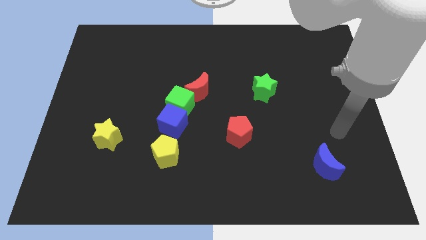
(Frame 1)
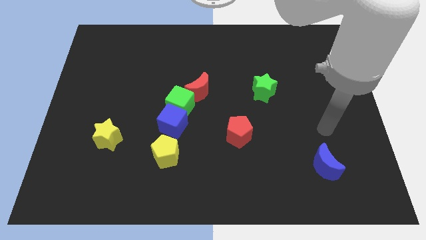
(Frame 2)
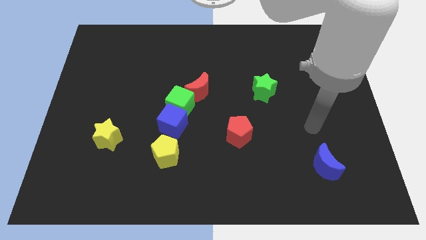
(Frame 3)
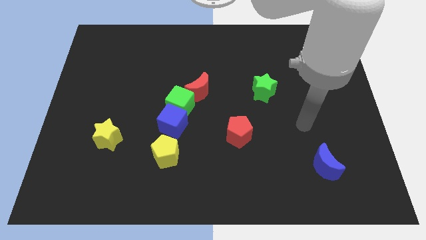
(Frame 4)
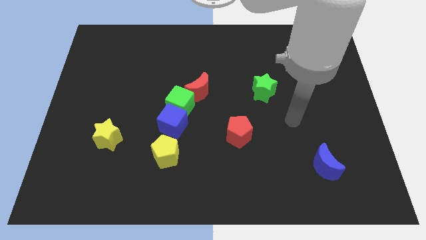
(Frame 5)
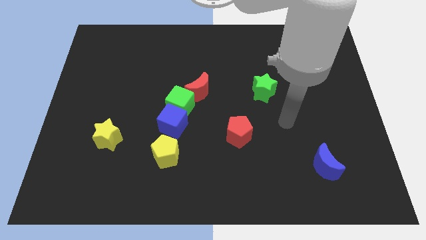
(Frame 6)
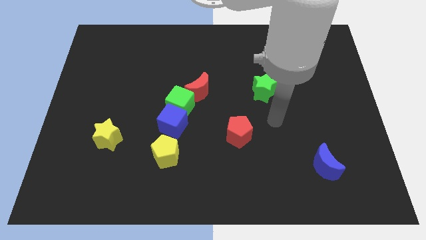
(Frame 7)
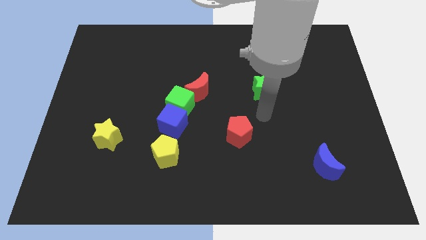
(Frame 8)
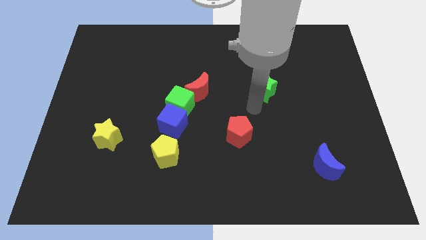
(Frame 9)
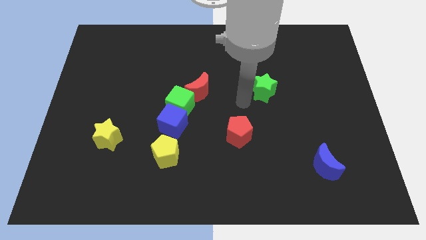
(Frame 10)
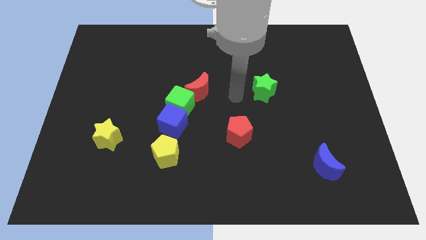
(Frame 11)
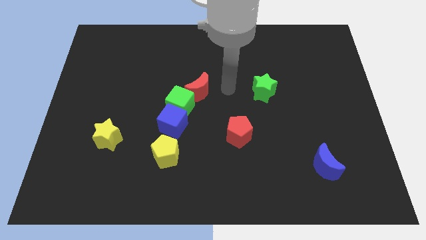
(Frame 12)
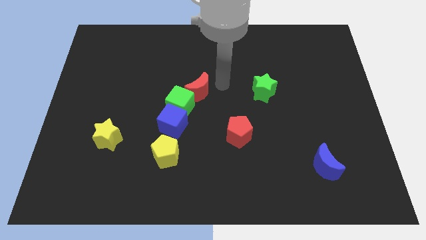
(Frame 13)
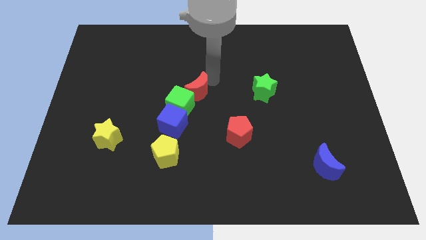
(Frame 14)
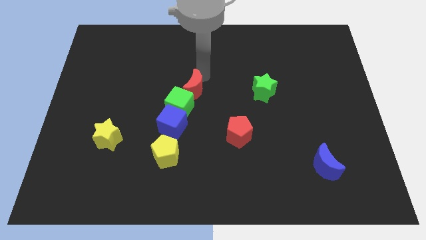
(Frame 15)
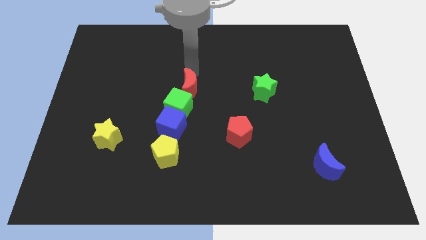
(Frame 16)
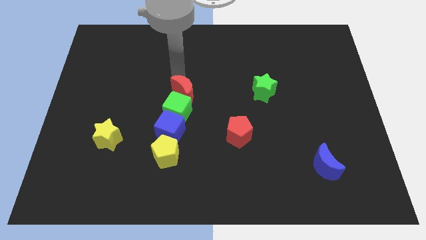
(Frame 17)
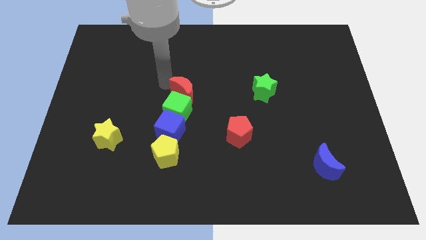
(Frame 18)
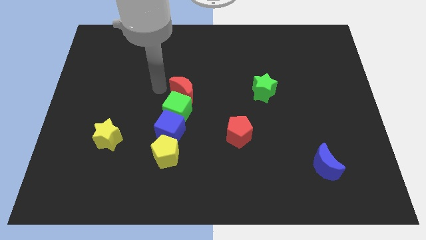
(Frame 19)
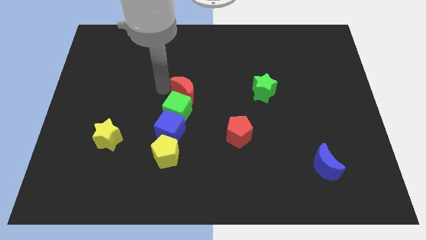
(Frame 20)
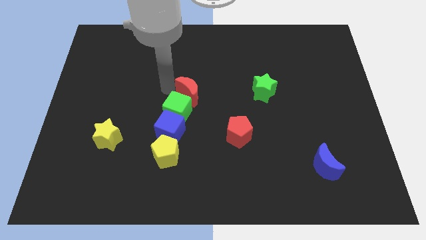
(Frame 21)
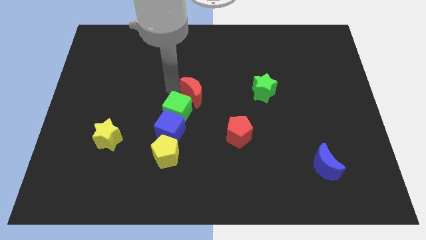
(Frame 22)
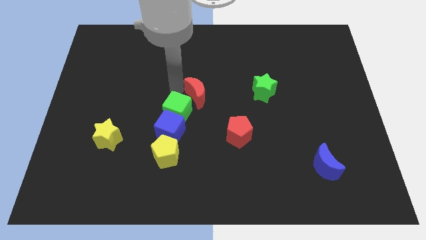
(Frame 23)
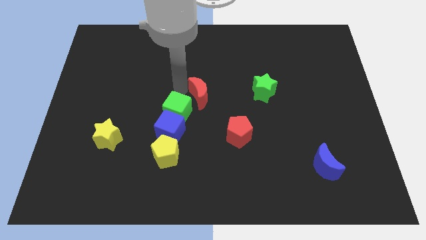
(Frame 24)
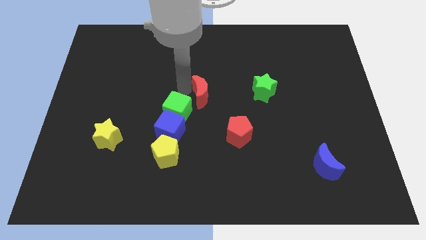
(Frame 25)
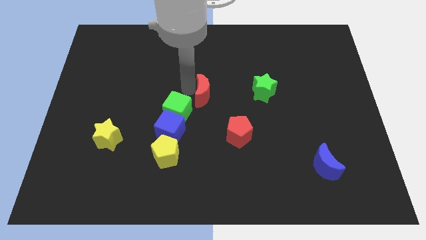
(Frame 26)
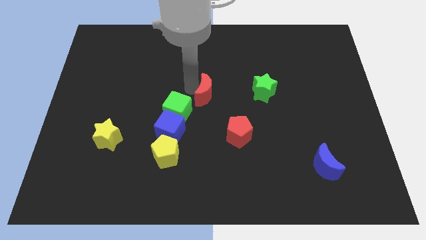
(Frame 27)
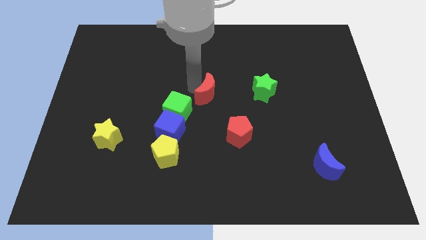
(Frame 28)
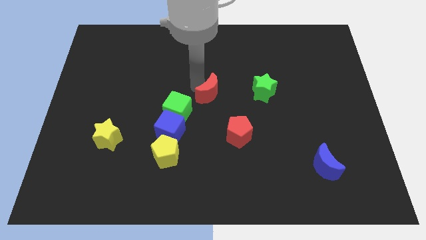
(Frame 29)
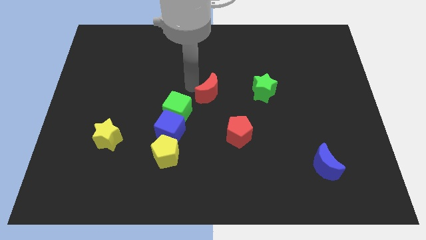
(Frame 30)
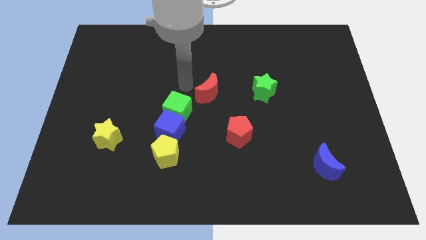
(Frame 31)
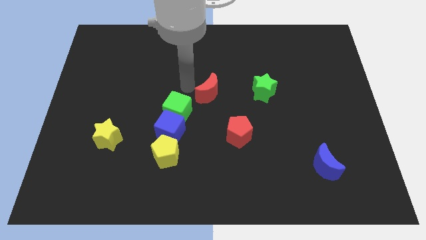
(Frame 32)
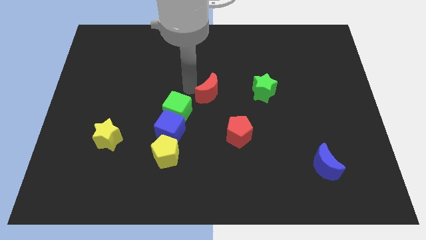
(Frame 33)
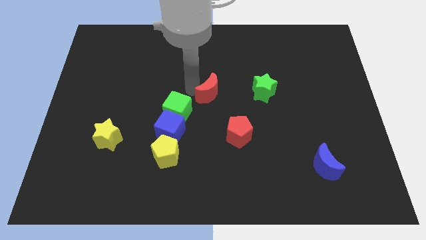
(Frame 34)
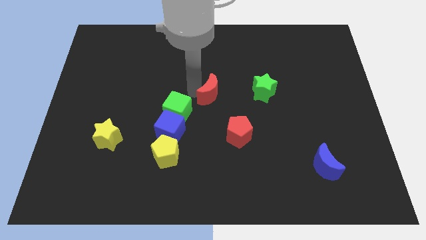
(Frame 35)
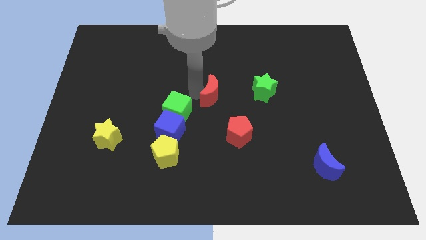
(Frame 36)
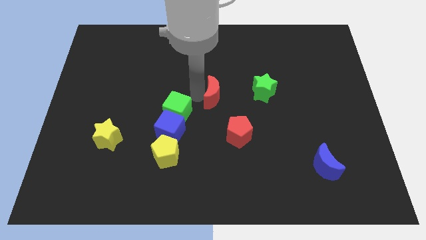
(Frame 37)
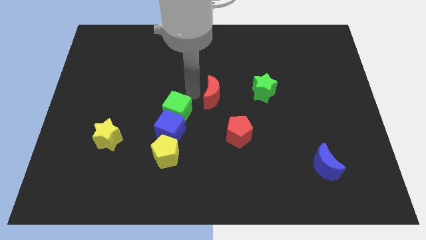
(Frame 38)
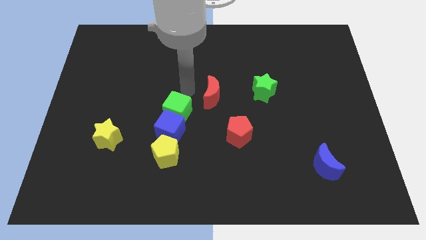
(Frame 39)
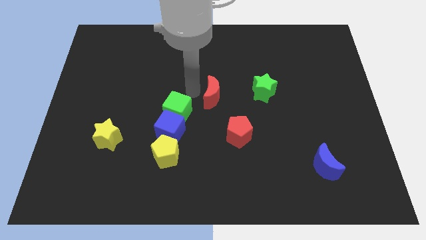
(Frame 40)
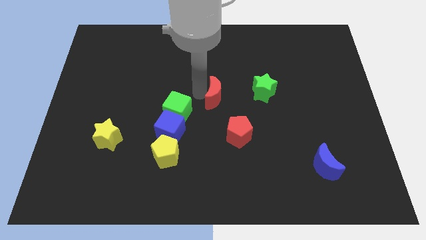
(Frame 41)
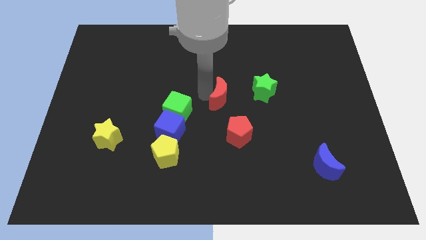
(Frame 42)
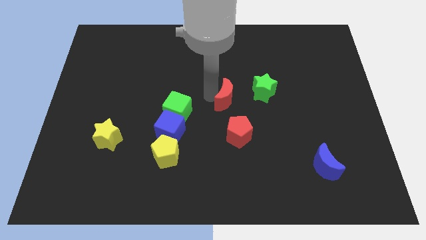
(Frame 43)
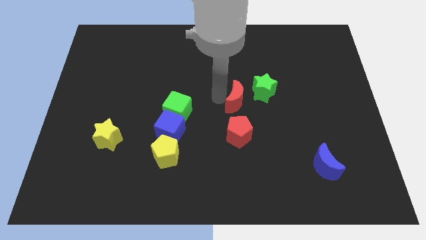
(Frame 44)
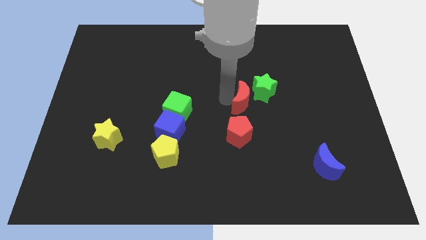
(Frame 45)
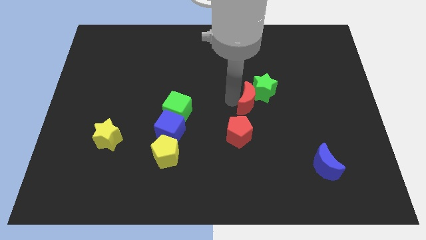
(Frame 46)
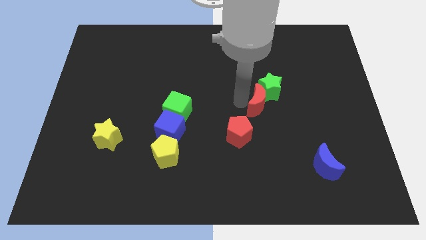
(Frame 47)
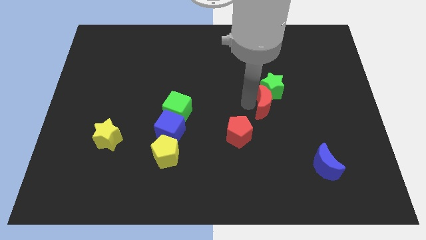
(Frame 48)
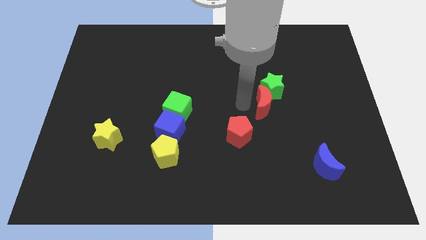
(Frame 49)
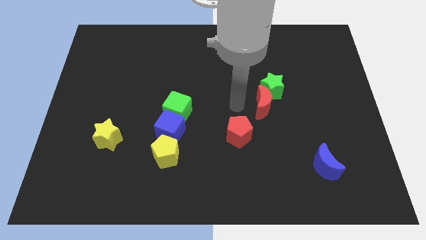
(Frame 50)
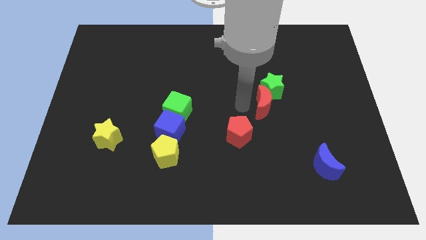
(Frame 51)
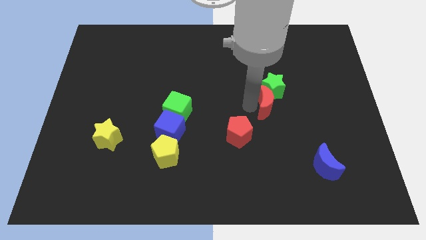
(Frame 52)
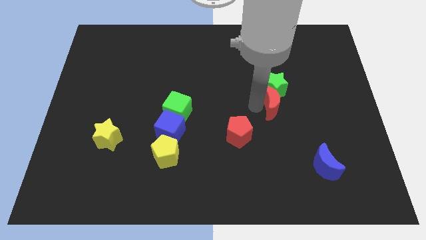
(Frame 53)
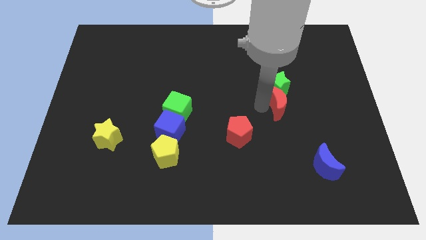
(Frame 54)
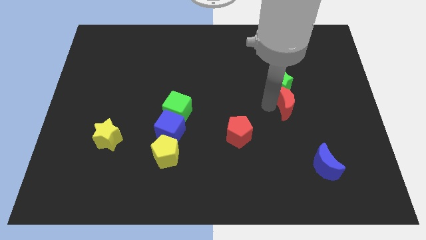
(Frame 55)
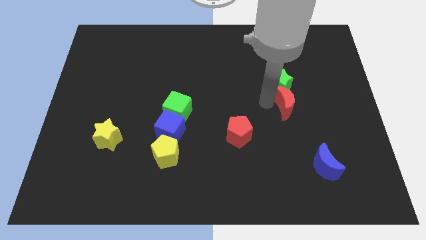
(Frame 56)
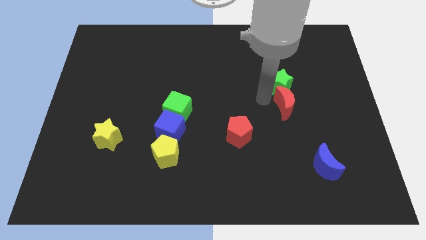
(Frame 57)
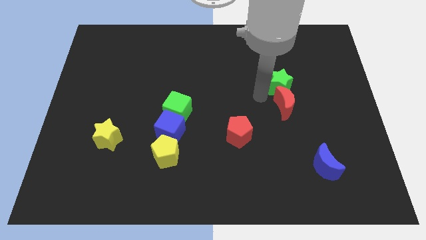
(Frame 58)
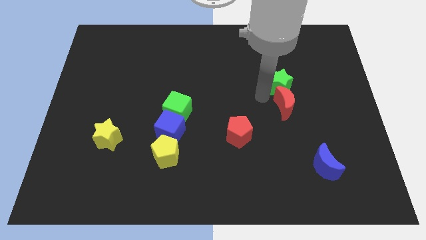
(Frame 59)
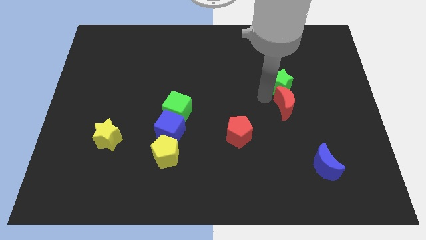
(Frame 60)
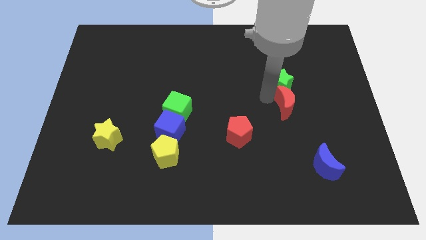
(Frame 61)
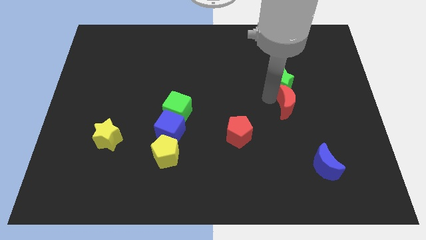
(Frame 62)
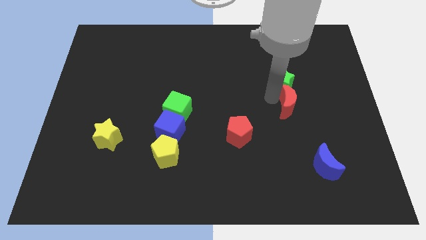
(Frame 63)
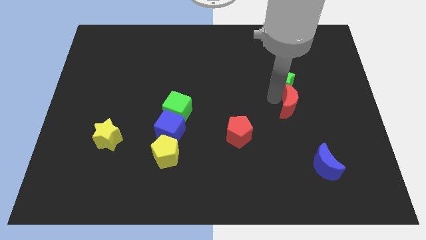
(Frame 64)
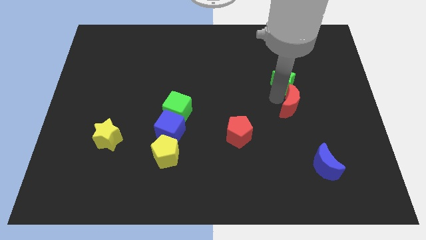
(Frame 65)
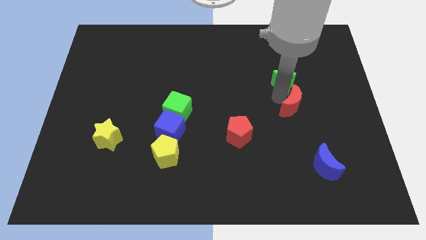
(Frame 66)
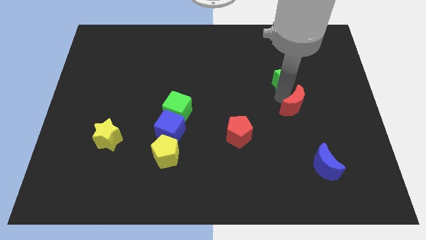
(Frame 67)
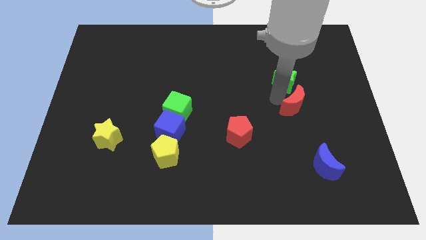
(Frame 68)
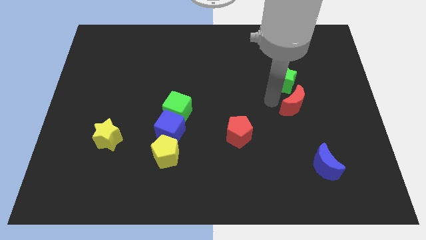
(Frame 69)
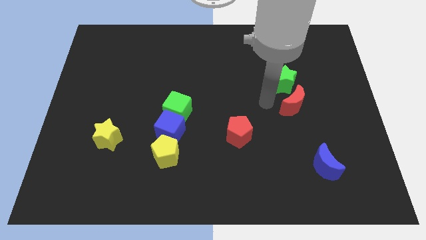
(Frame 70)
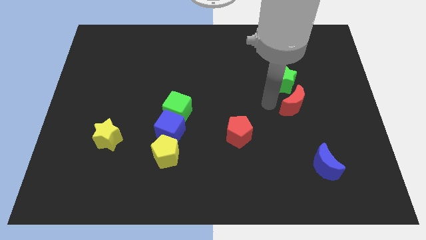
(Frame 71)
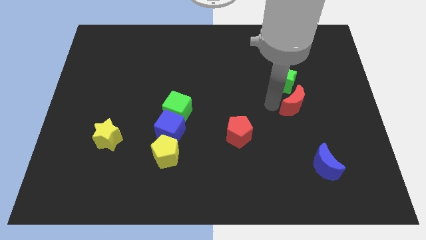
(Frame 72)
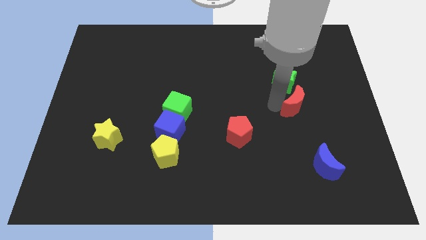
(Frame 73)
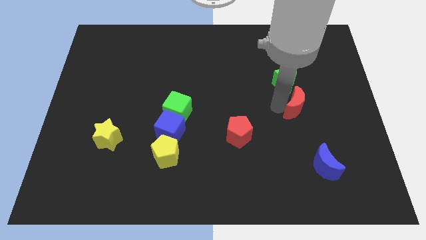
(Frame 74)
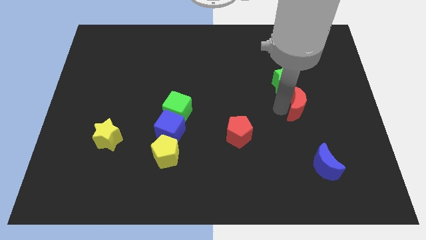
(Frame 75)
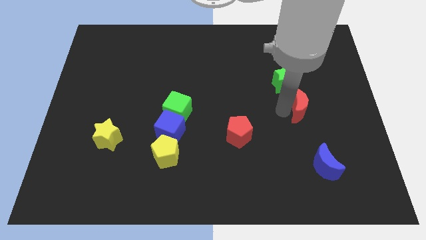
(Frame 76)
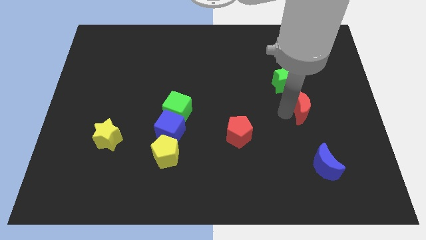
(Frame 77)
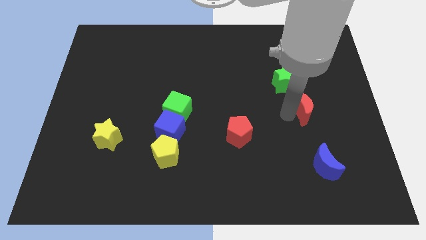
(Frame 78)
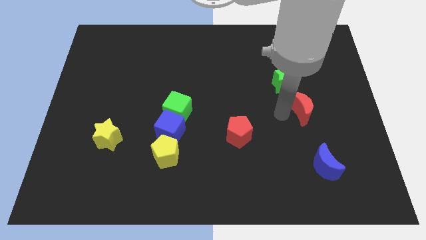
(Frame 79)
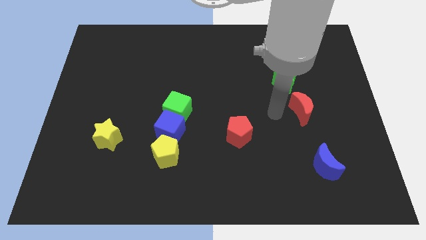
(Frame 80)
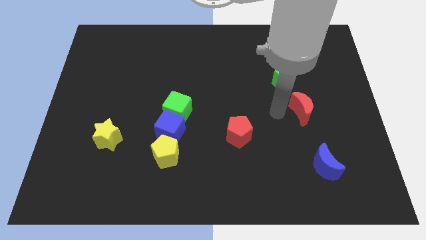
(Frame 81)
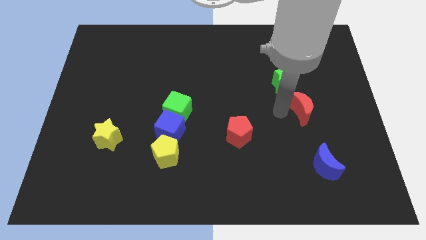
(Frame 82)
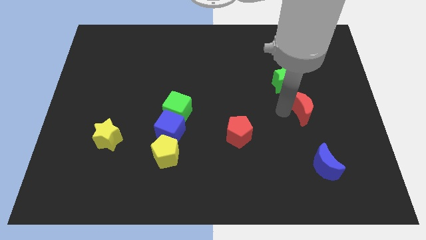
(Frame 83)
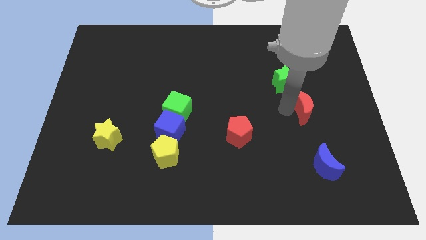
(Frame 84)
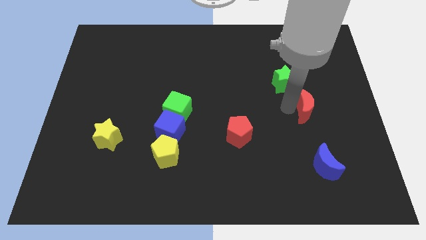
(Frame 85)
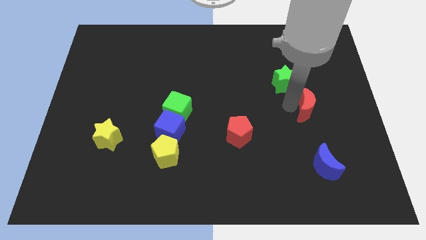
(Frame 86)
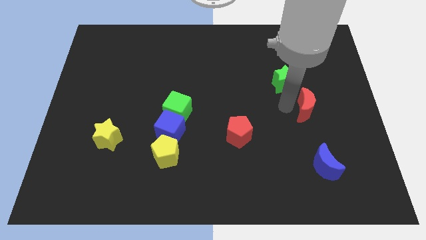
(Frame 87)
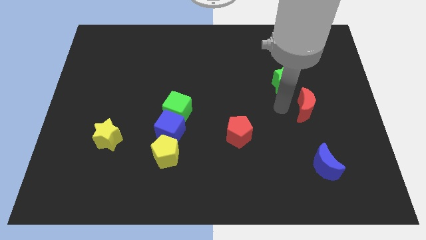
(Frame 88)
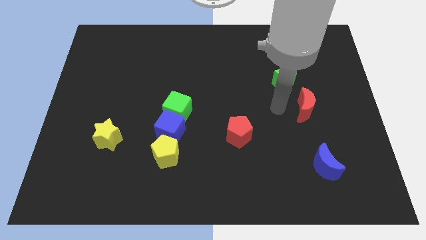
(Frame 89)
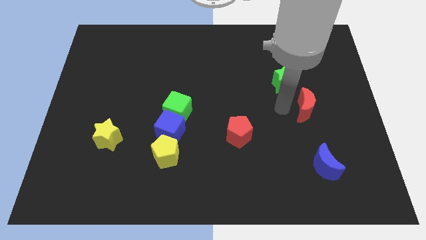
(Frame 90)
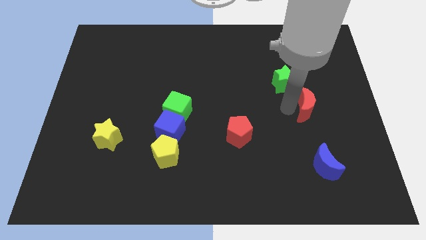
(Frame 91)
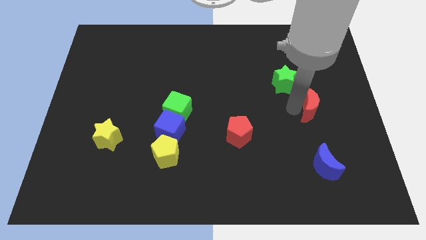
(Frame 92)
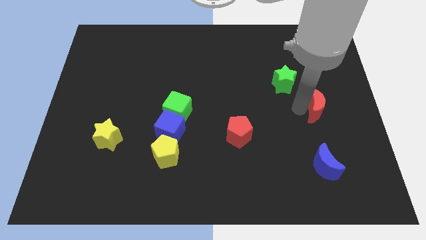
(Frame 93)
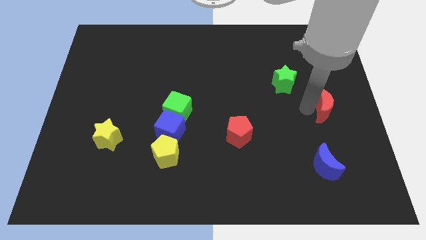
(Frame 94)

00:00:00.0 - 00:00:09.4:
put the red moon to the right side of the board
